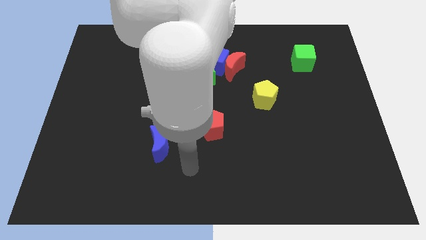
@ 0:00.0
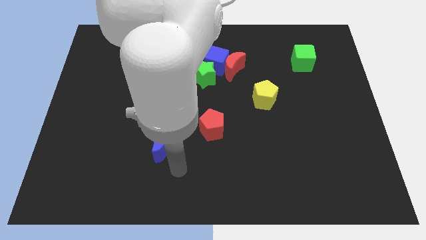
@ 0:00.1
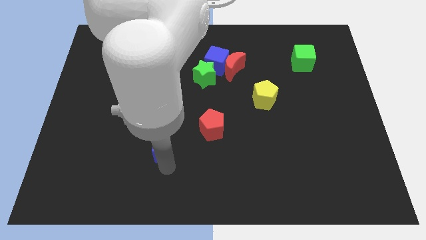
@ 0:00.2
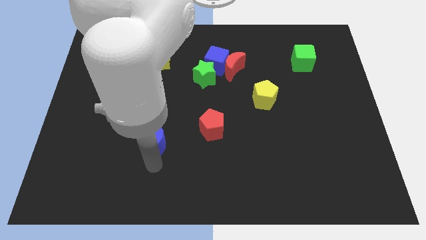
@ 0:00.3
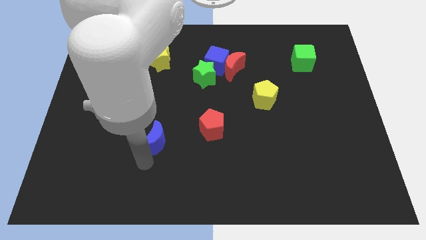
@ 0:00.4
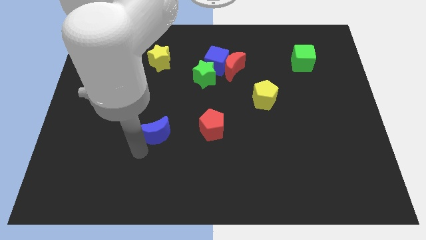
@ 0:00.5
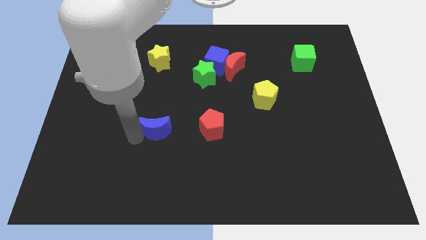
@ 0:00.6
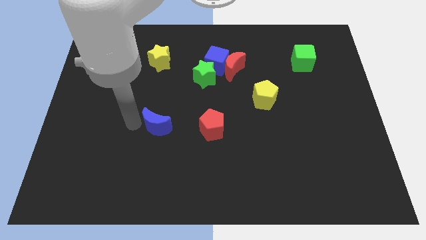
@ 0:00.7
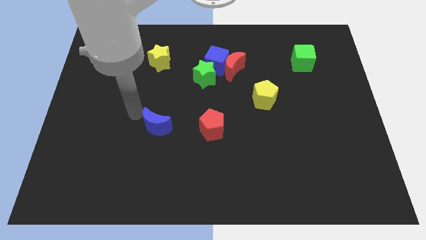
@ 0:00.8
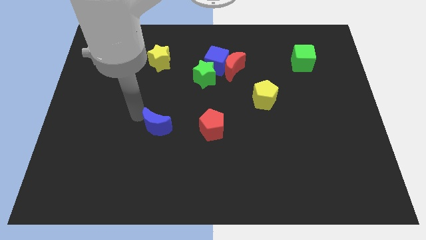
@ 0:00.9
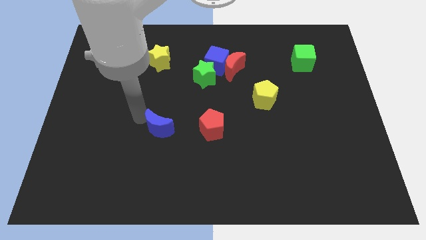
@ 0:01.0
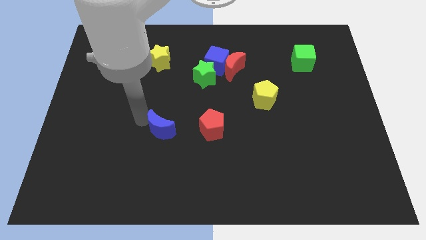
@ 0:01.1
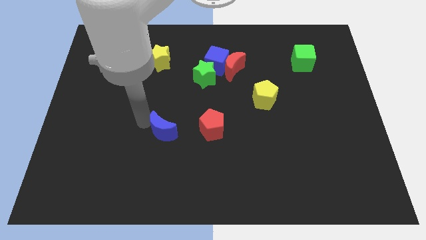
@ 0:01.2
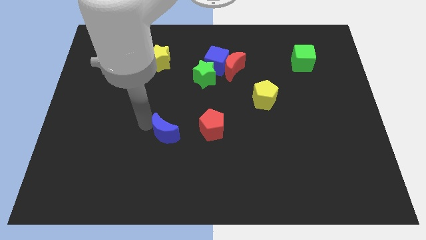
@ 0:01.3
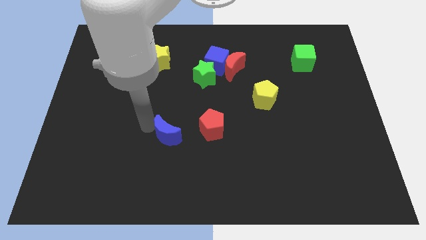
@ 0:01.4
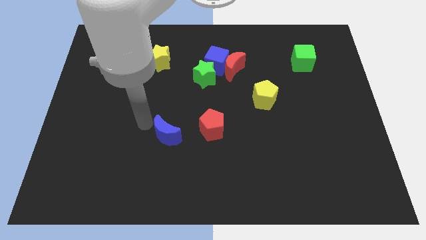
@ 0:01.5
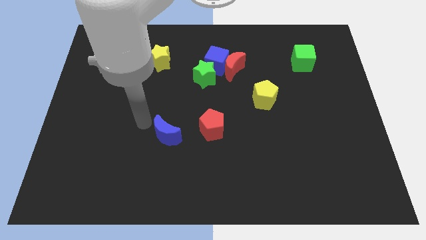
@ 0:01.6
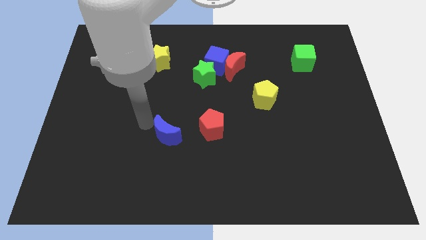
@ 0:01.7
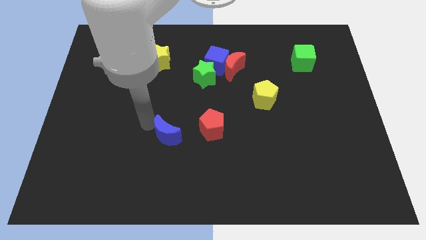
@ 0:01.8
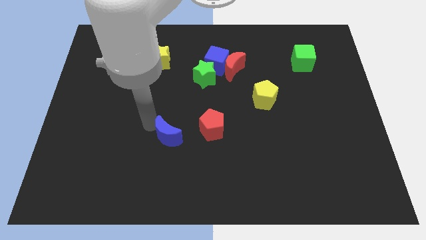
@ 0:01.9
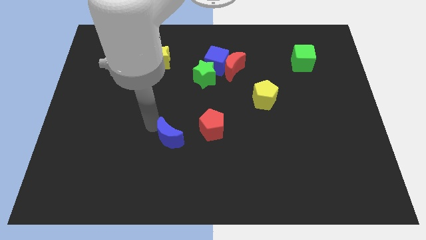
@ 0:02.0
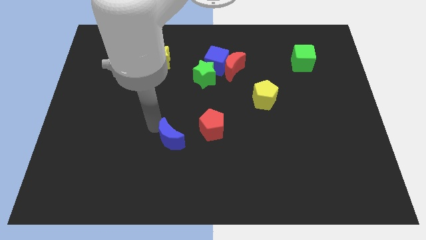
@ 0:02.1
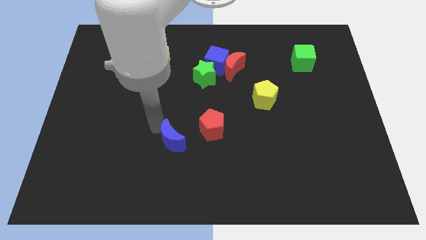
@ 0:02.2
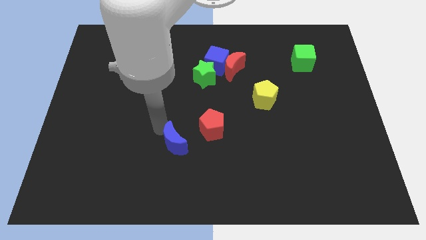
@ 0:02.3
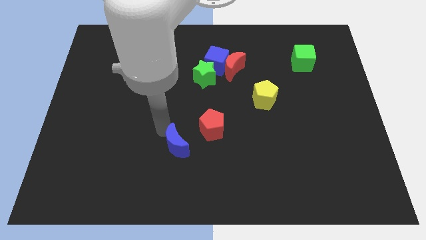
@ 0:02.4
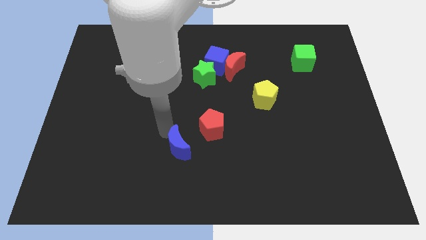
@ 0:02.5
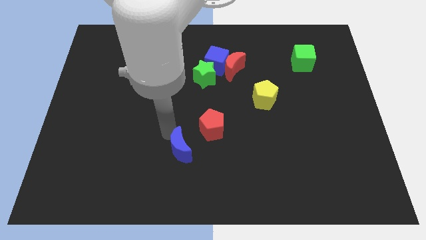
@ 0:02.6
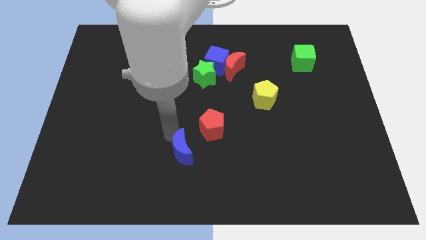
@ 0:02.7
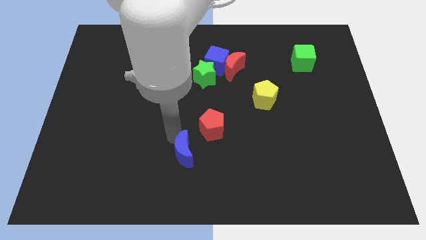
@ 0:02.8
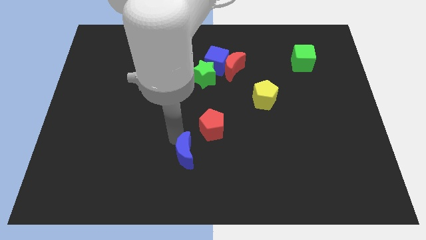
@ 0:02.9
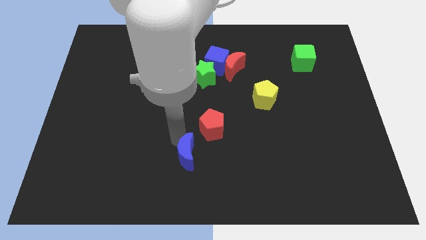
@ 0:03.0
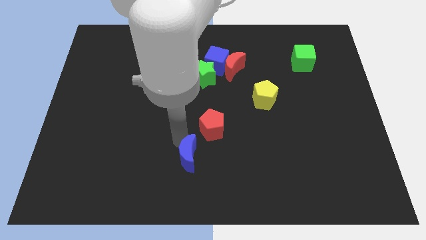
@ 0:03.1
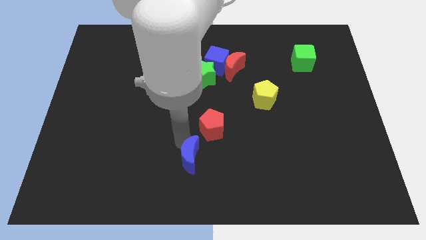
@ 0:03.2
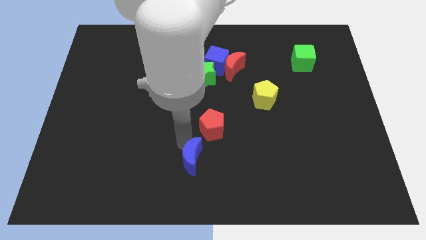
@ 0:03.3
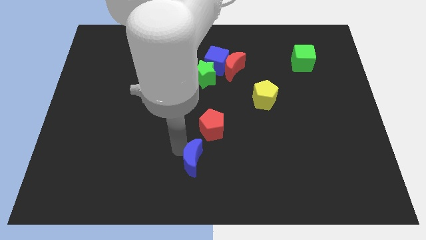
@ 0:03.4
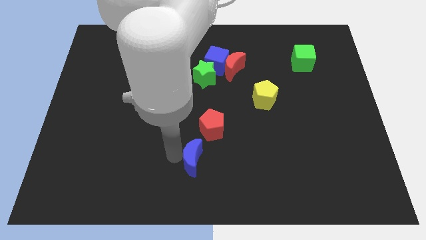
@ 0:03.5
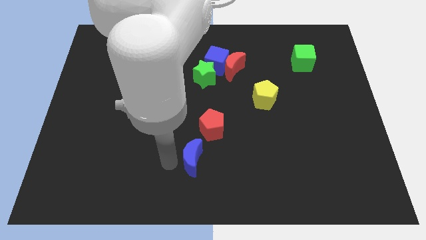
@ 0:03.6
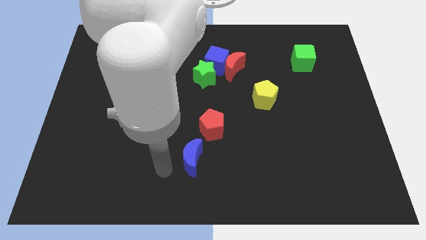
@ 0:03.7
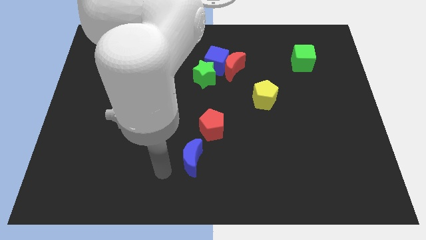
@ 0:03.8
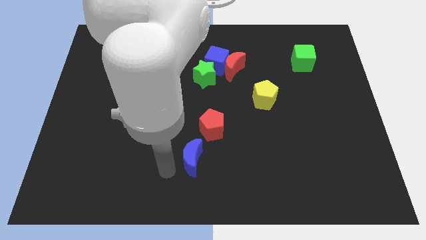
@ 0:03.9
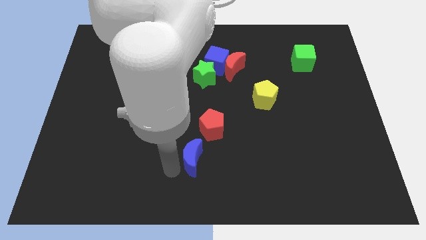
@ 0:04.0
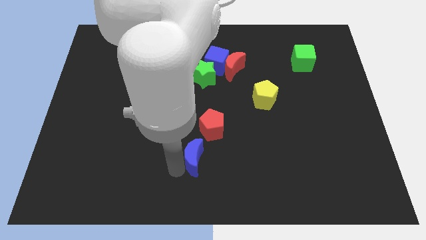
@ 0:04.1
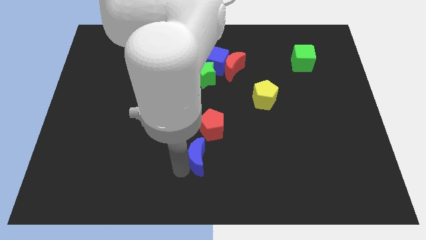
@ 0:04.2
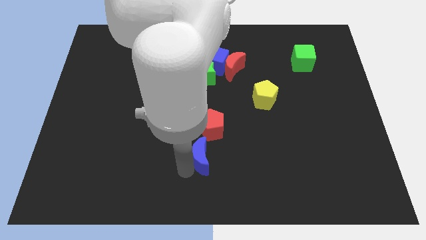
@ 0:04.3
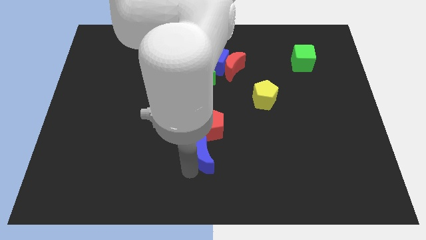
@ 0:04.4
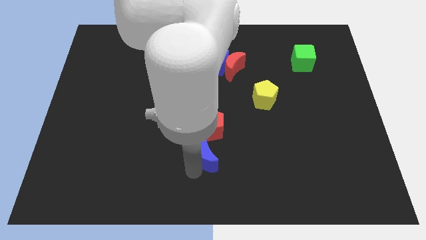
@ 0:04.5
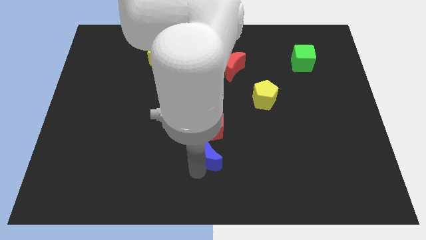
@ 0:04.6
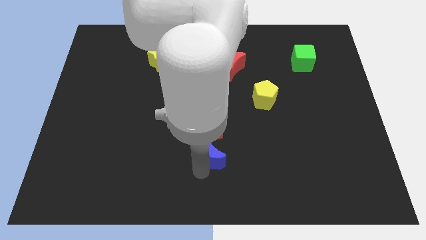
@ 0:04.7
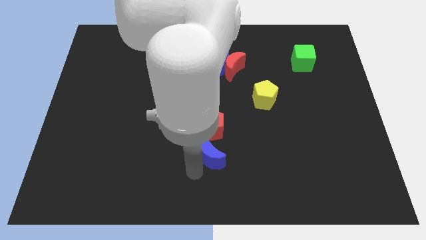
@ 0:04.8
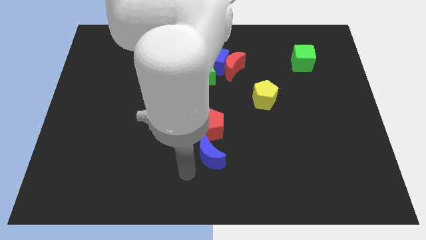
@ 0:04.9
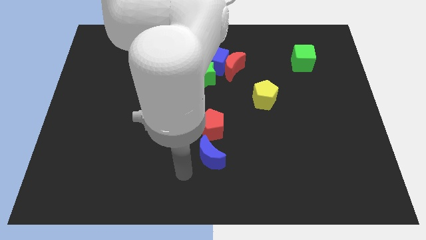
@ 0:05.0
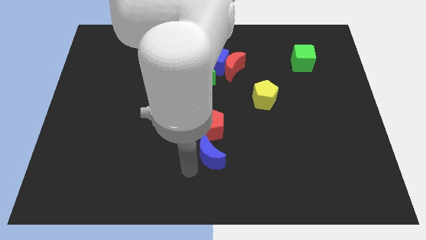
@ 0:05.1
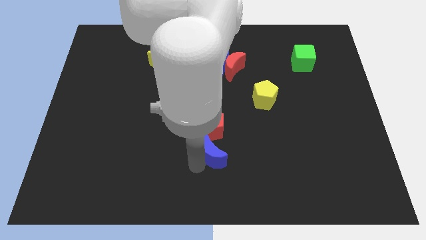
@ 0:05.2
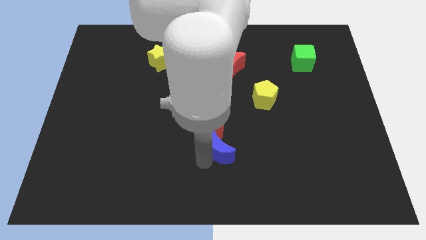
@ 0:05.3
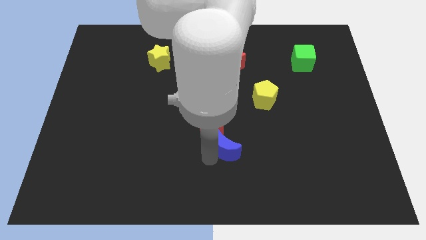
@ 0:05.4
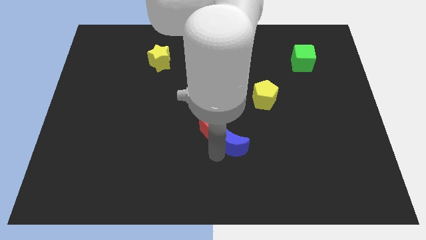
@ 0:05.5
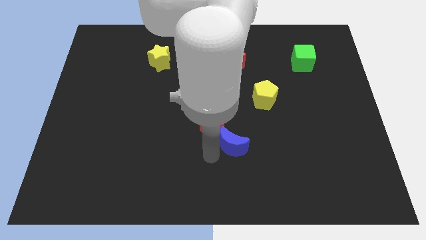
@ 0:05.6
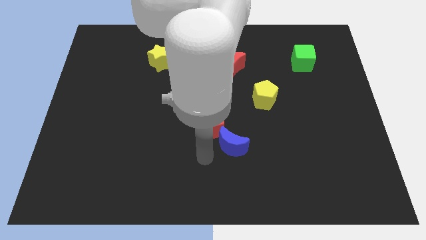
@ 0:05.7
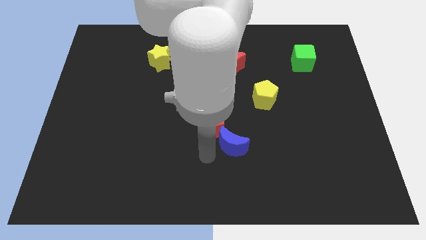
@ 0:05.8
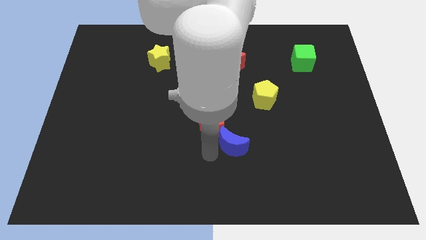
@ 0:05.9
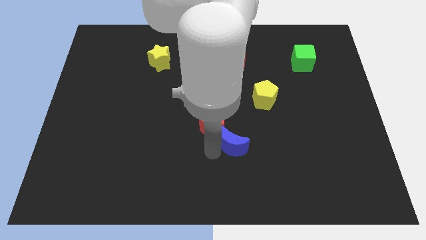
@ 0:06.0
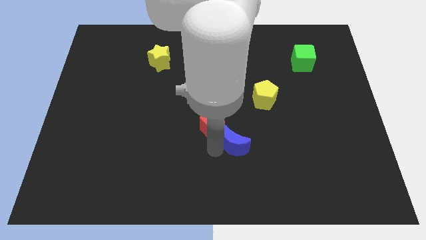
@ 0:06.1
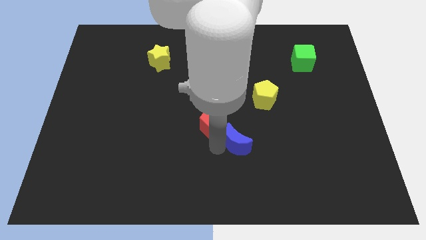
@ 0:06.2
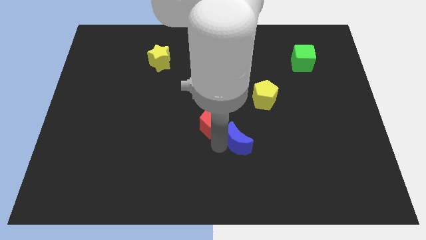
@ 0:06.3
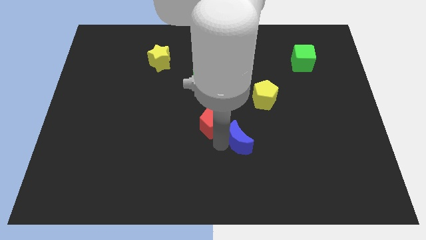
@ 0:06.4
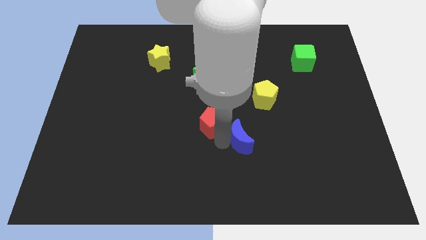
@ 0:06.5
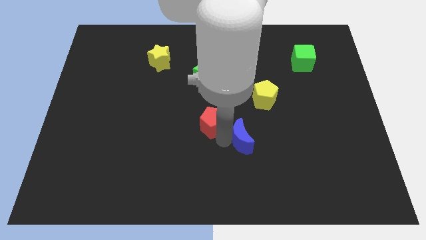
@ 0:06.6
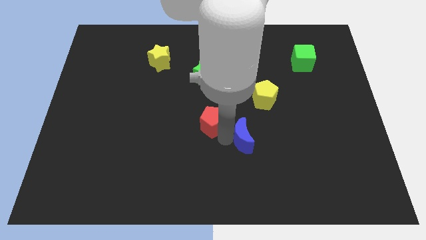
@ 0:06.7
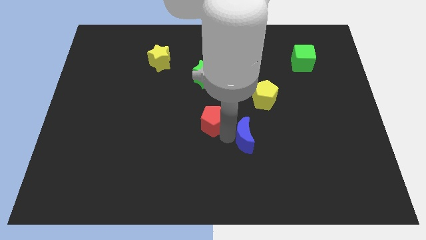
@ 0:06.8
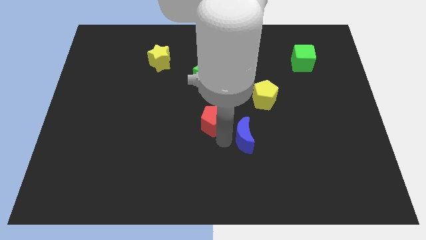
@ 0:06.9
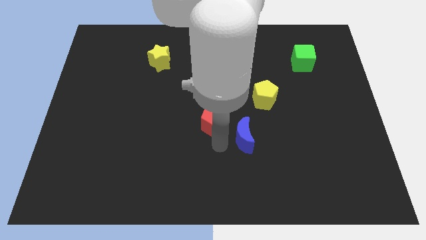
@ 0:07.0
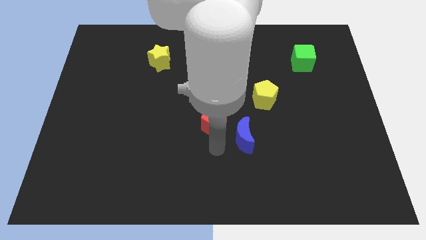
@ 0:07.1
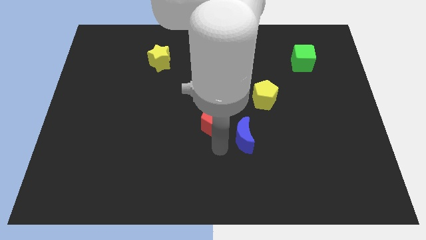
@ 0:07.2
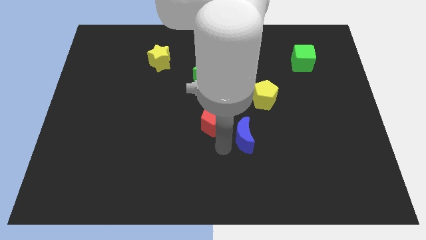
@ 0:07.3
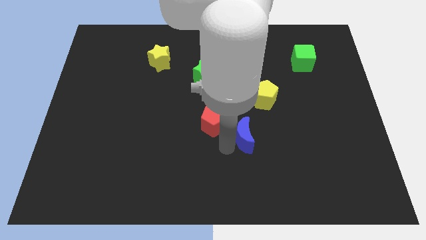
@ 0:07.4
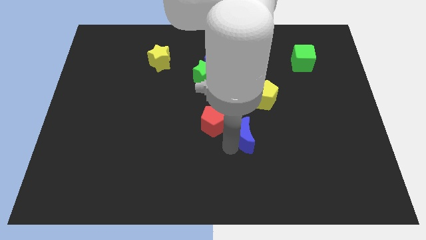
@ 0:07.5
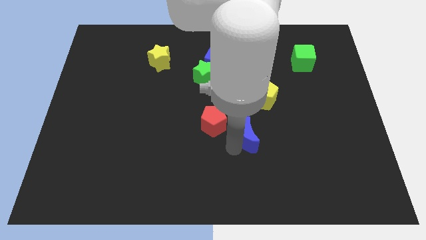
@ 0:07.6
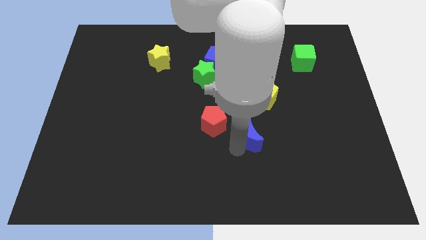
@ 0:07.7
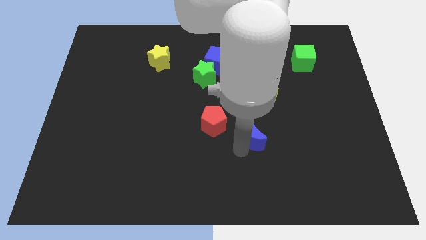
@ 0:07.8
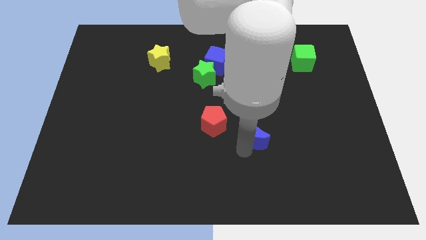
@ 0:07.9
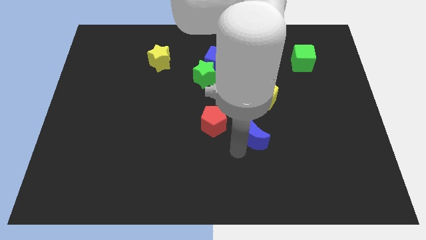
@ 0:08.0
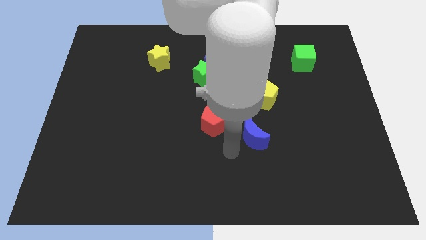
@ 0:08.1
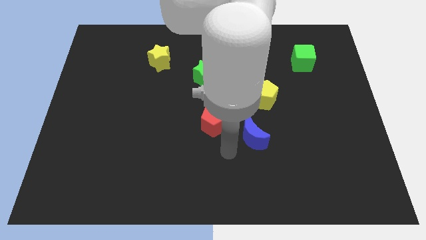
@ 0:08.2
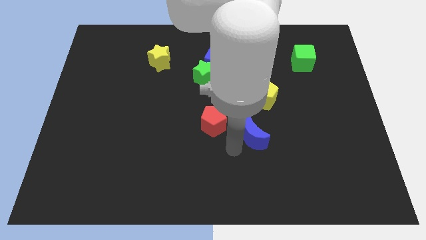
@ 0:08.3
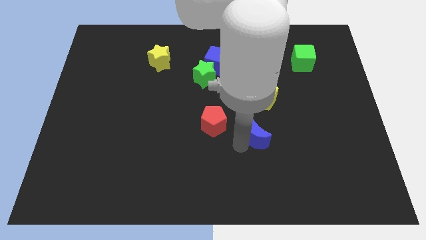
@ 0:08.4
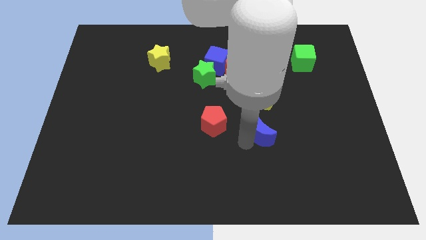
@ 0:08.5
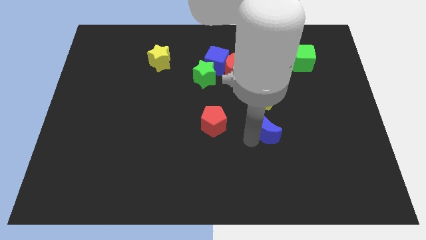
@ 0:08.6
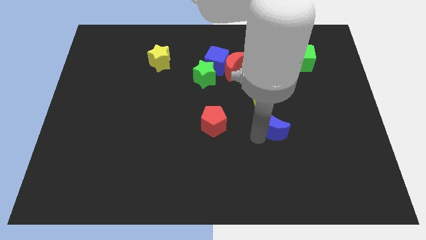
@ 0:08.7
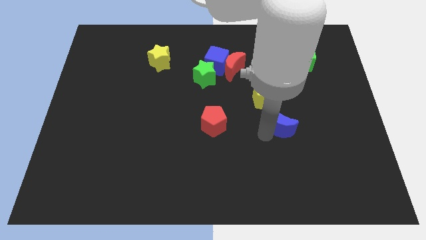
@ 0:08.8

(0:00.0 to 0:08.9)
slide the blue moon diagonally down and to the right of the yellow pentagon
